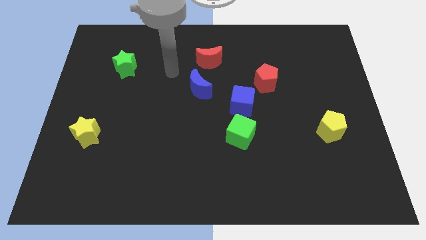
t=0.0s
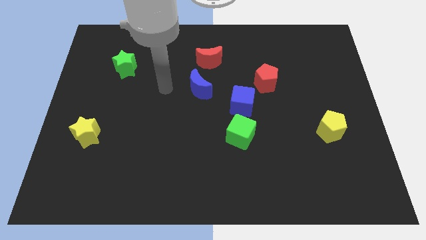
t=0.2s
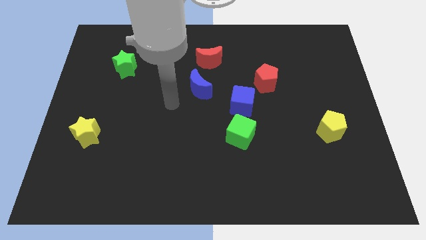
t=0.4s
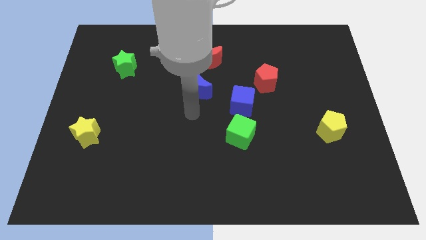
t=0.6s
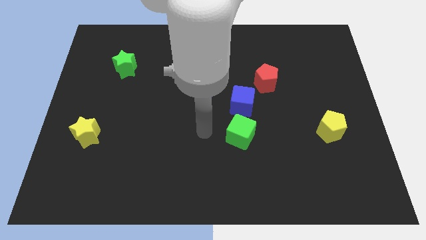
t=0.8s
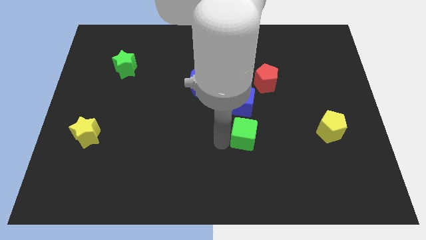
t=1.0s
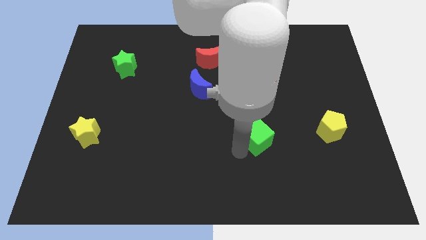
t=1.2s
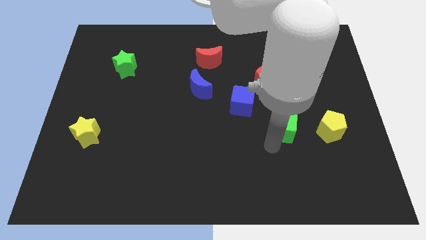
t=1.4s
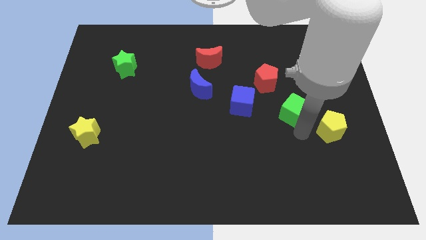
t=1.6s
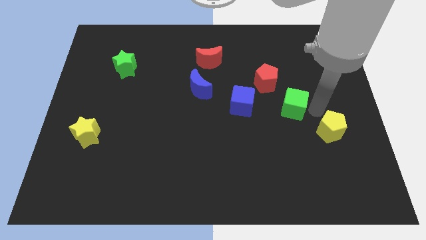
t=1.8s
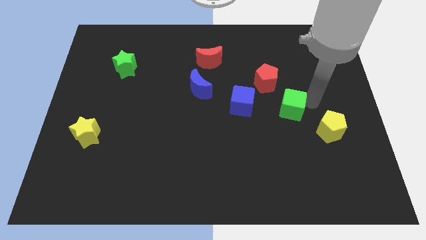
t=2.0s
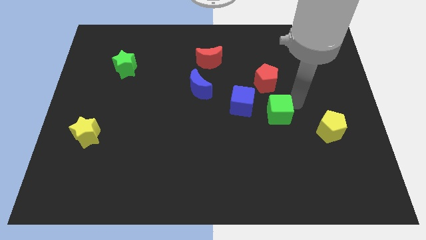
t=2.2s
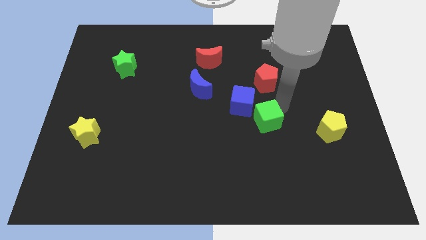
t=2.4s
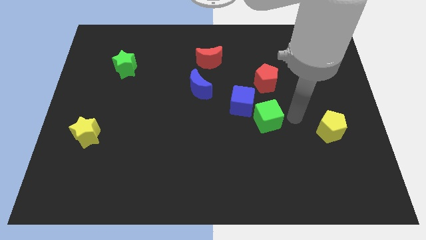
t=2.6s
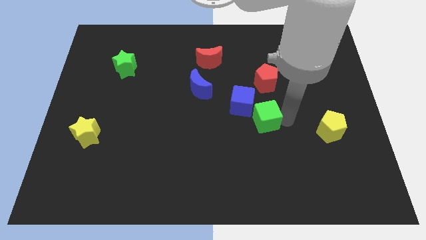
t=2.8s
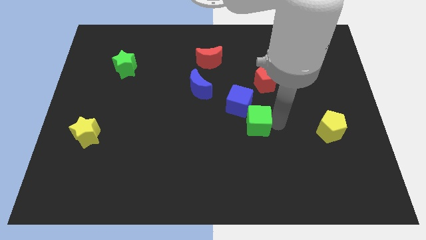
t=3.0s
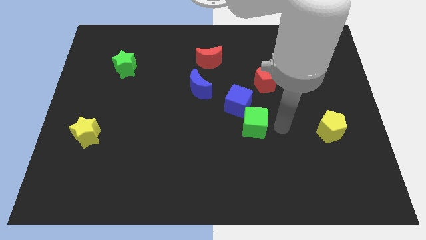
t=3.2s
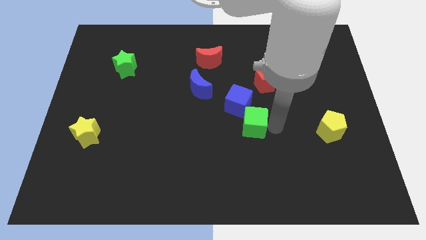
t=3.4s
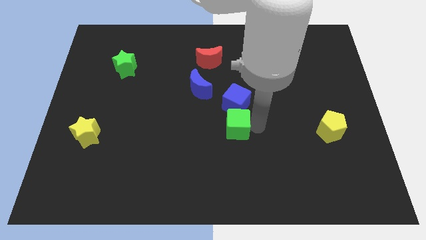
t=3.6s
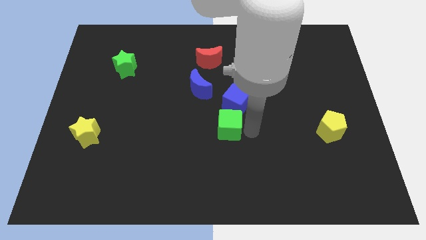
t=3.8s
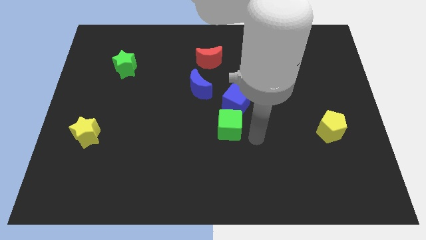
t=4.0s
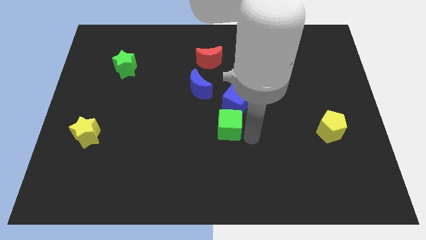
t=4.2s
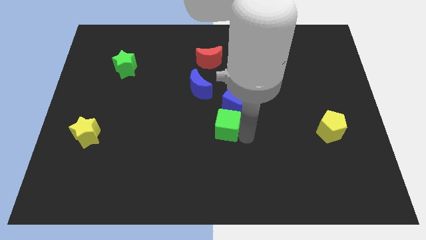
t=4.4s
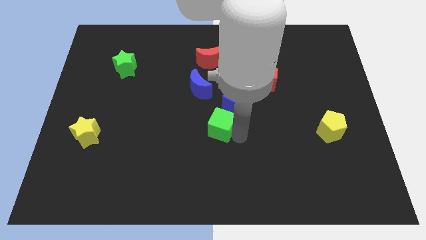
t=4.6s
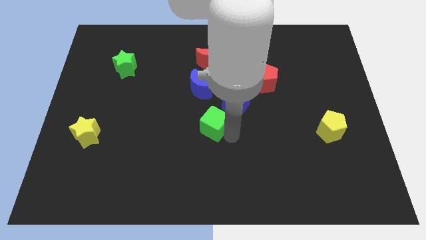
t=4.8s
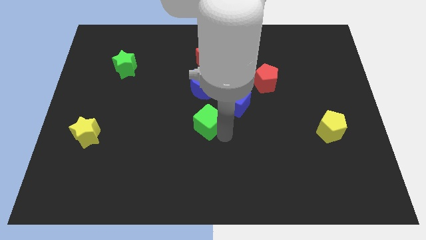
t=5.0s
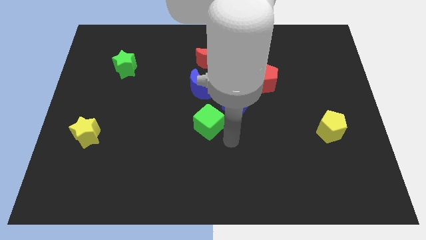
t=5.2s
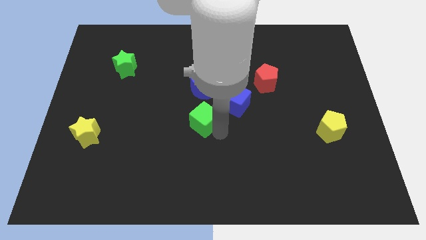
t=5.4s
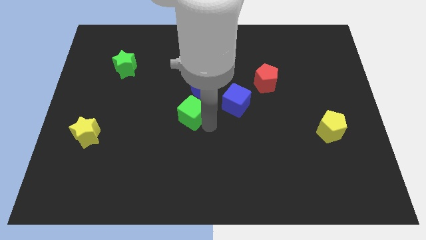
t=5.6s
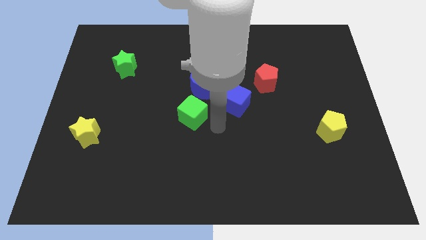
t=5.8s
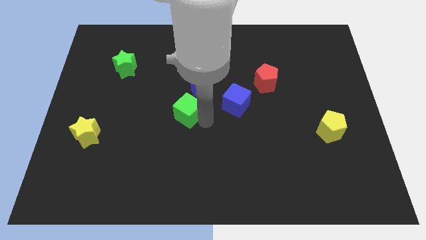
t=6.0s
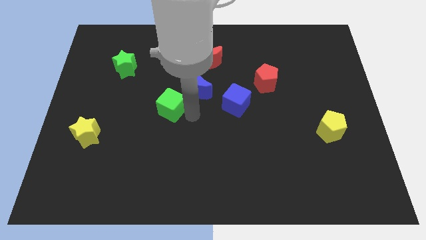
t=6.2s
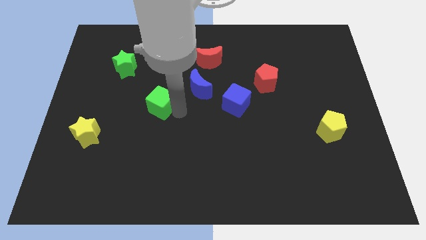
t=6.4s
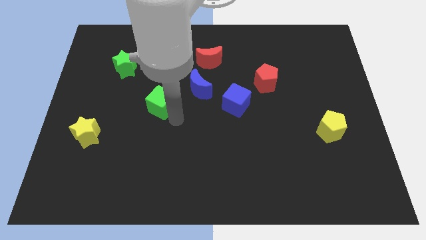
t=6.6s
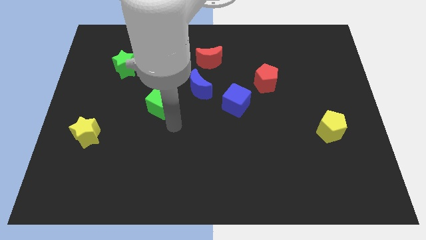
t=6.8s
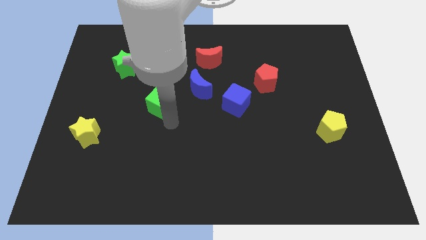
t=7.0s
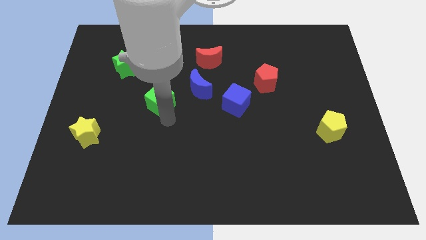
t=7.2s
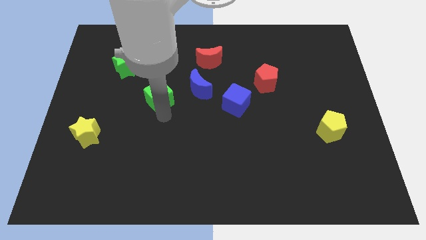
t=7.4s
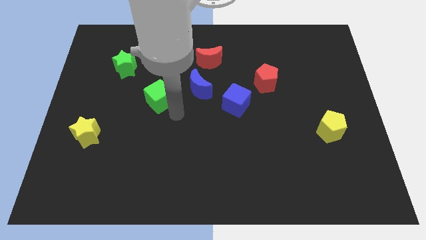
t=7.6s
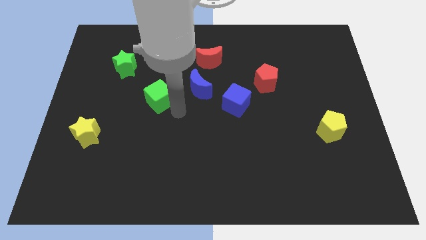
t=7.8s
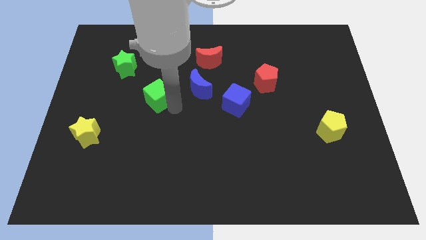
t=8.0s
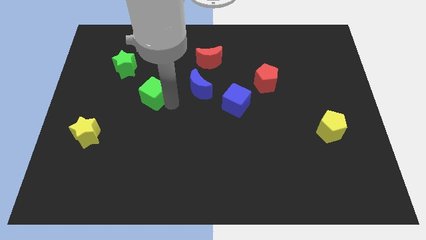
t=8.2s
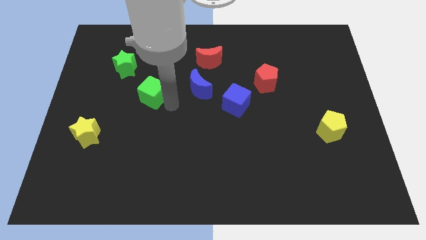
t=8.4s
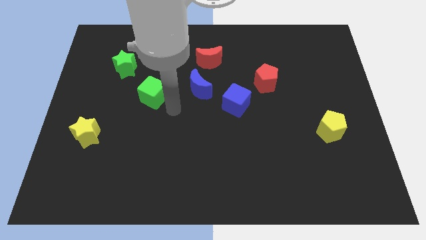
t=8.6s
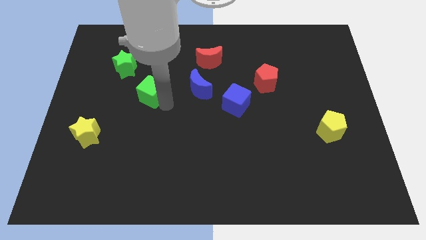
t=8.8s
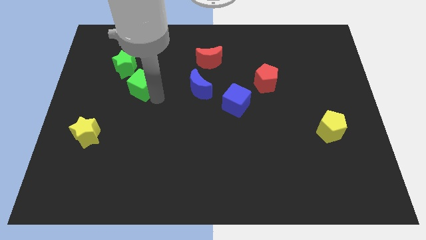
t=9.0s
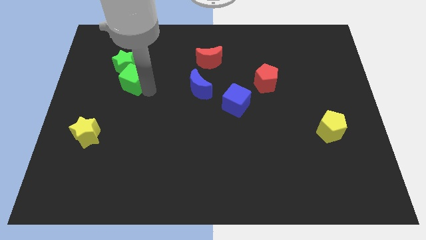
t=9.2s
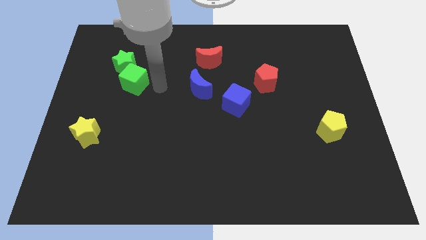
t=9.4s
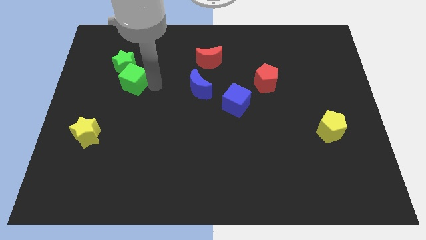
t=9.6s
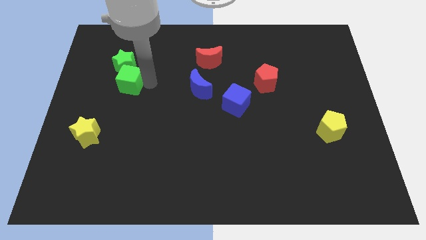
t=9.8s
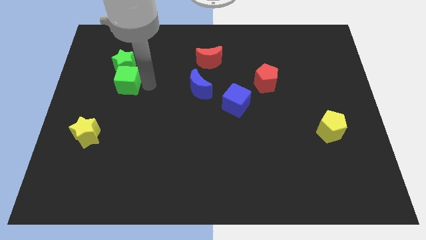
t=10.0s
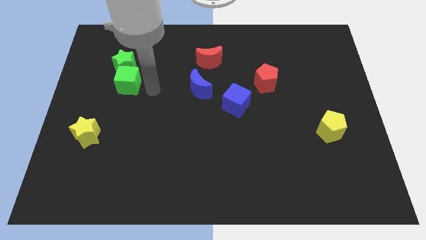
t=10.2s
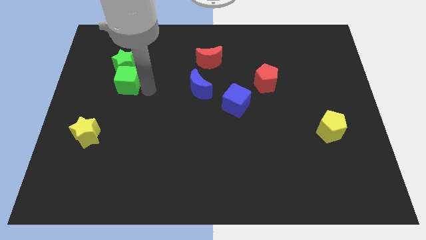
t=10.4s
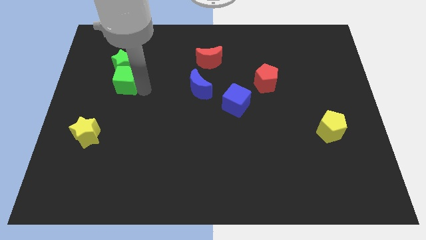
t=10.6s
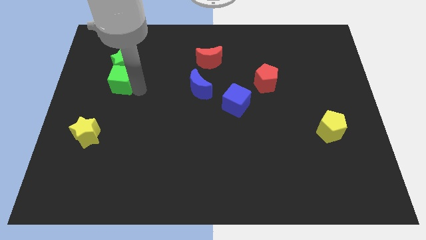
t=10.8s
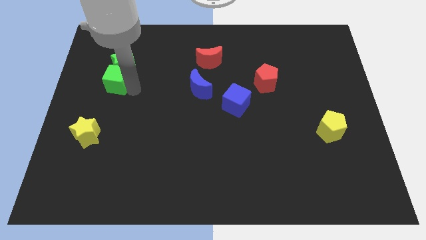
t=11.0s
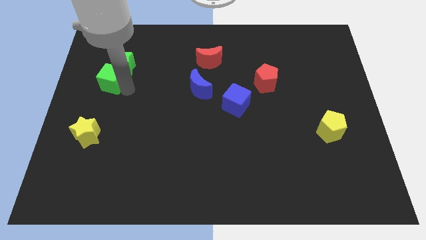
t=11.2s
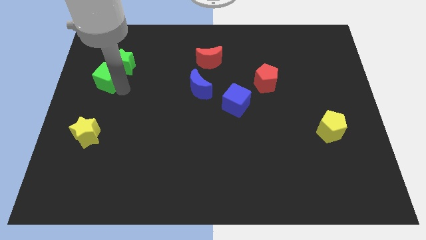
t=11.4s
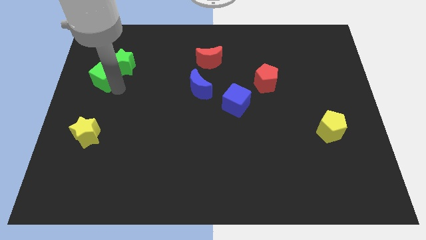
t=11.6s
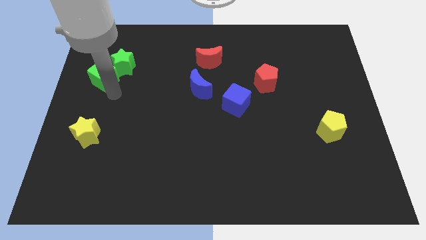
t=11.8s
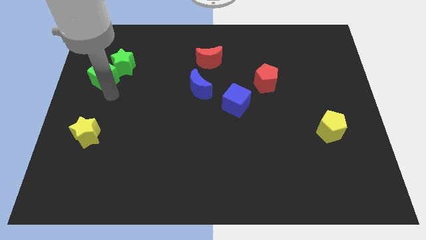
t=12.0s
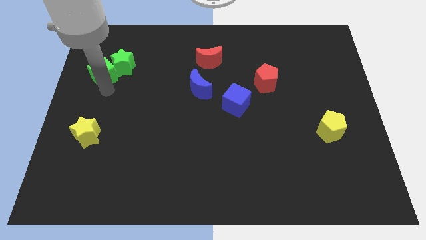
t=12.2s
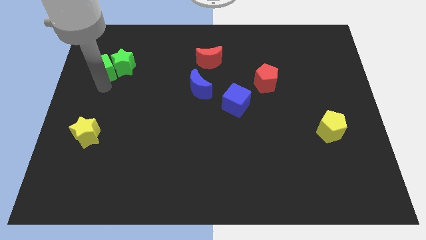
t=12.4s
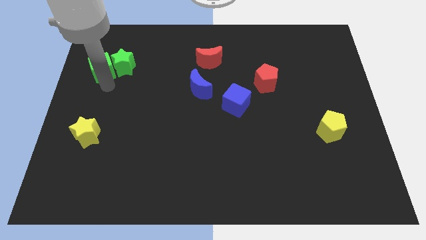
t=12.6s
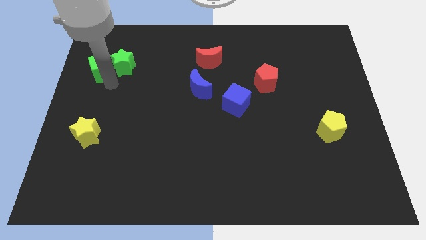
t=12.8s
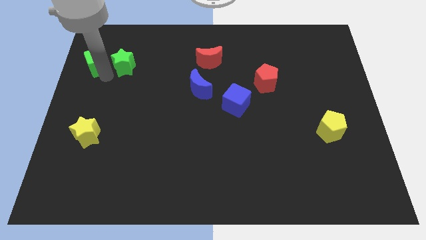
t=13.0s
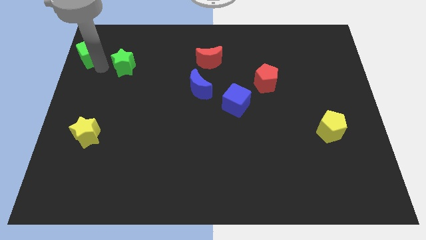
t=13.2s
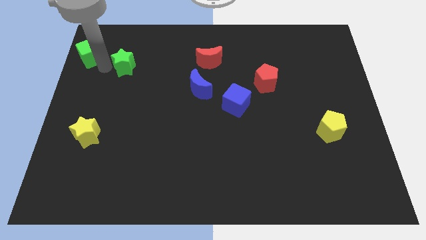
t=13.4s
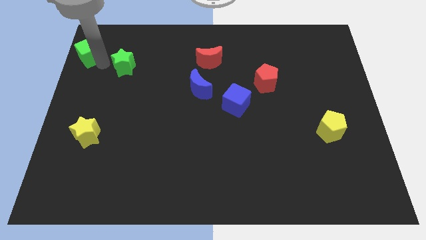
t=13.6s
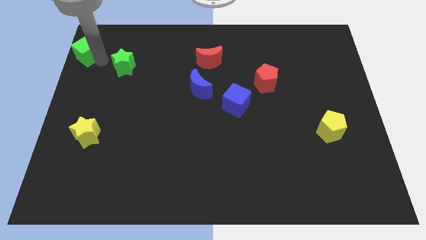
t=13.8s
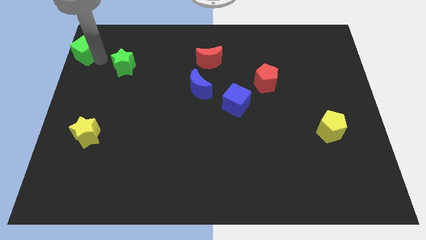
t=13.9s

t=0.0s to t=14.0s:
put the green cube to the upper left corner

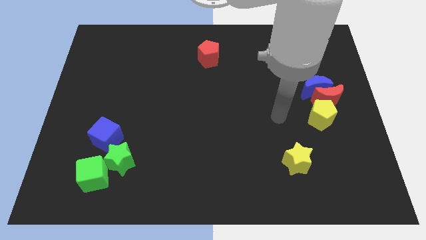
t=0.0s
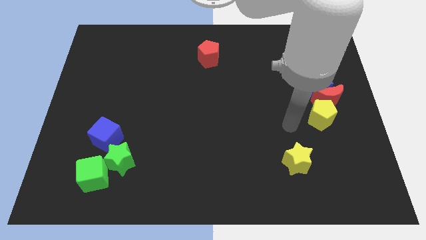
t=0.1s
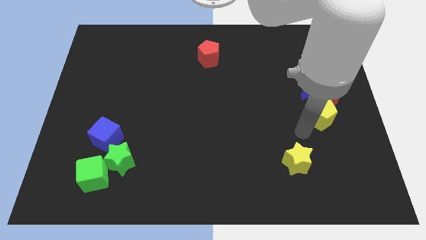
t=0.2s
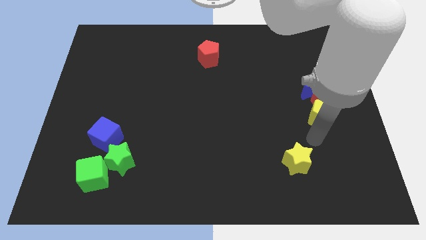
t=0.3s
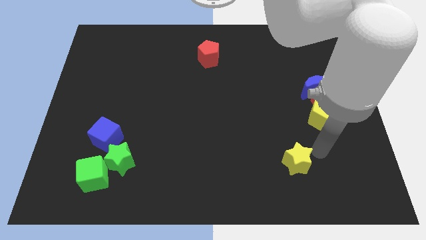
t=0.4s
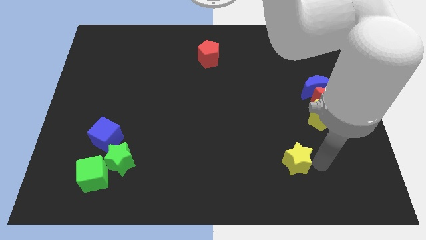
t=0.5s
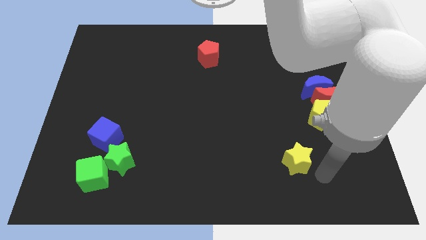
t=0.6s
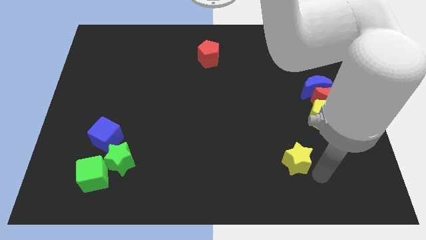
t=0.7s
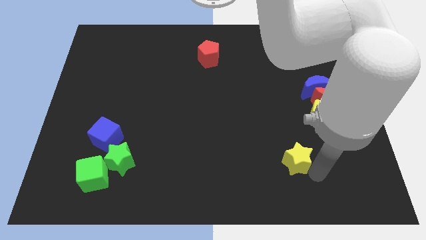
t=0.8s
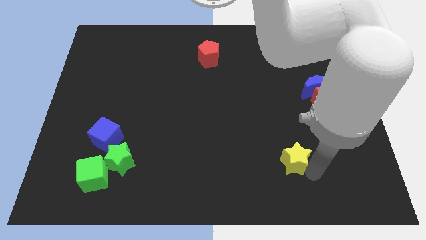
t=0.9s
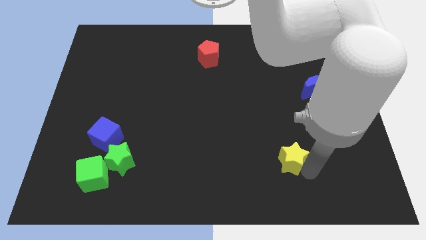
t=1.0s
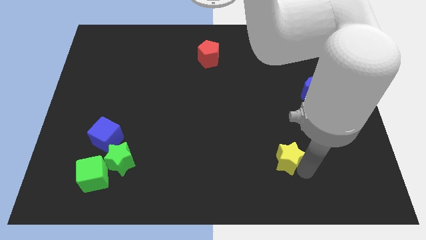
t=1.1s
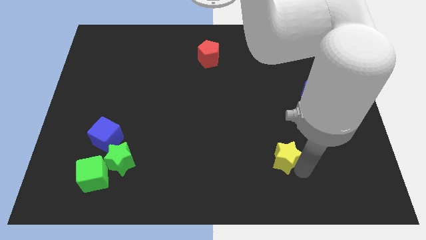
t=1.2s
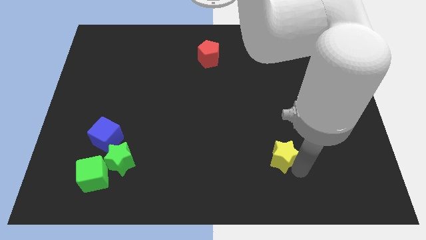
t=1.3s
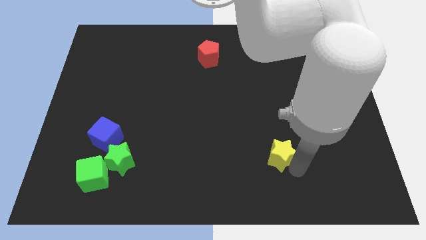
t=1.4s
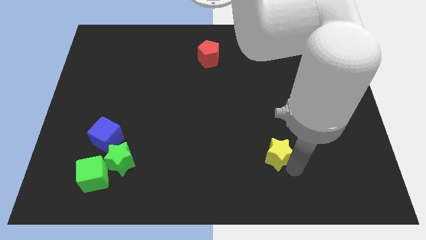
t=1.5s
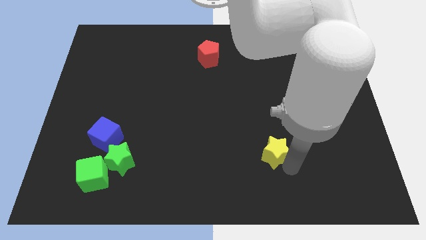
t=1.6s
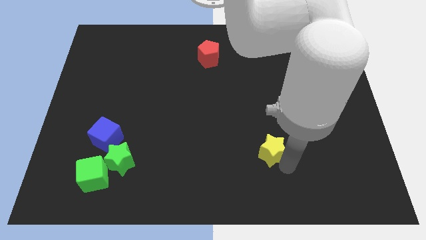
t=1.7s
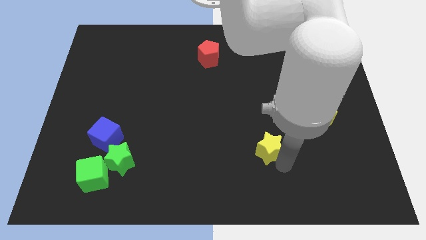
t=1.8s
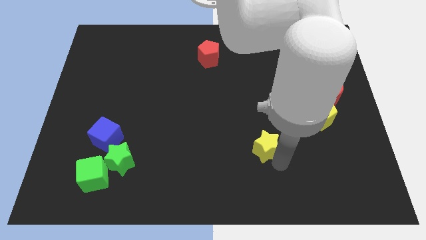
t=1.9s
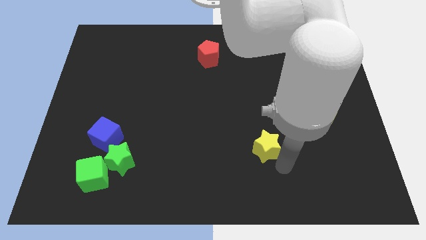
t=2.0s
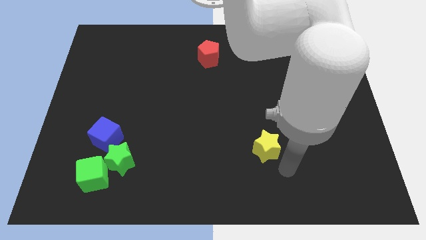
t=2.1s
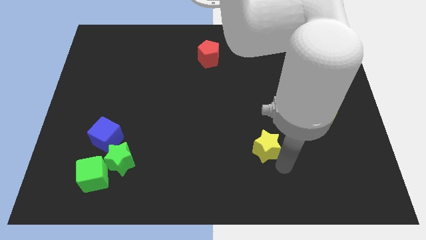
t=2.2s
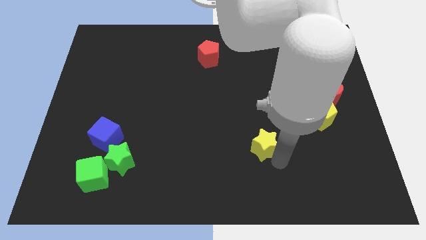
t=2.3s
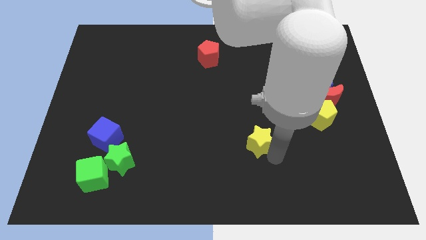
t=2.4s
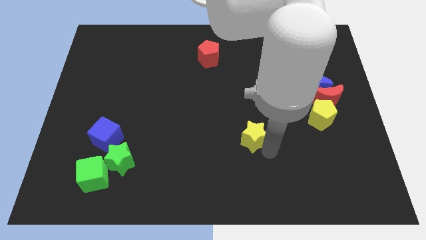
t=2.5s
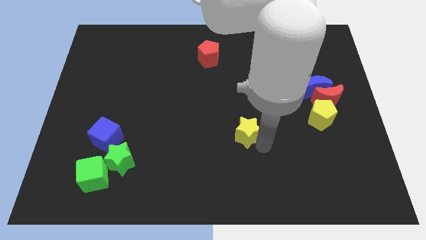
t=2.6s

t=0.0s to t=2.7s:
move the yellow star to the center of the board
